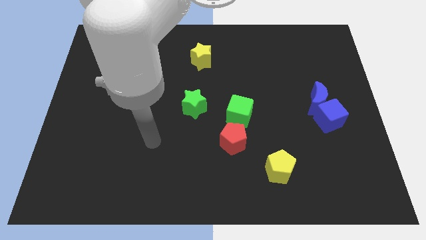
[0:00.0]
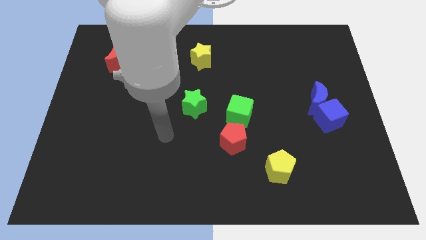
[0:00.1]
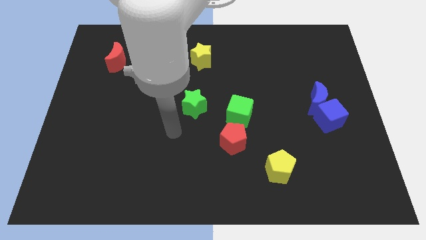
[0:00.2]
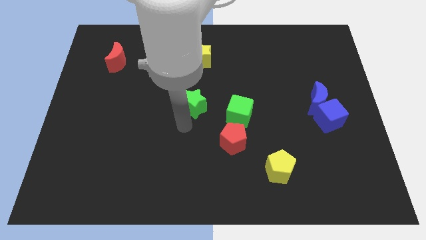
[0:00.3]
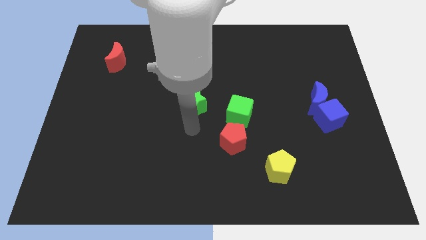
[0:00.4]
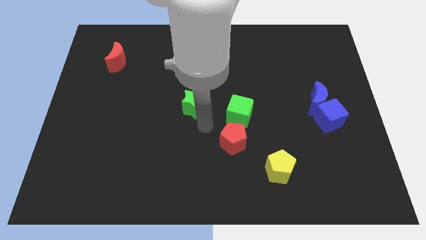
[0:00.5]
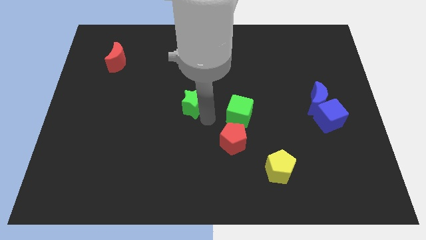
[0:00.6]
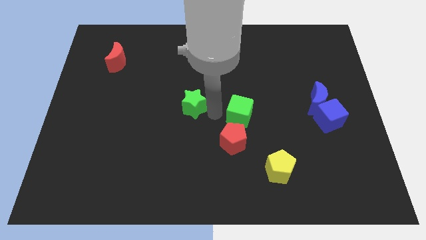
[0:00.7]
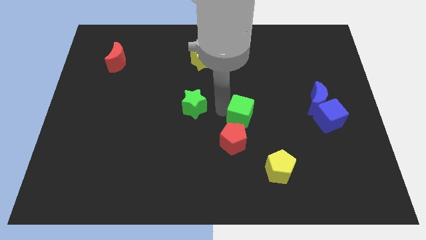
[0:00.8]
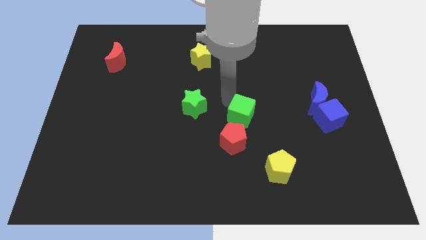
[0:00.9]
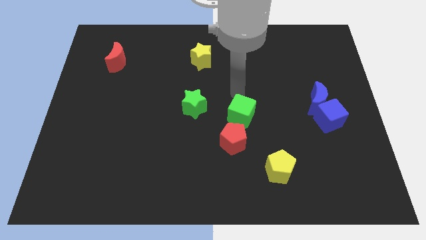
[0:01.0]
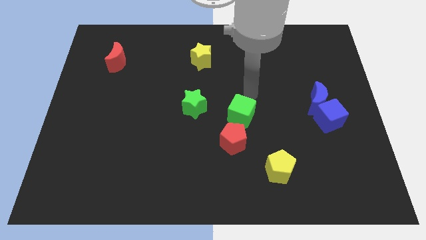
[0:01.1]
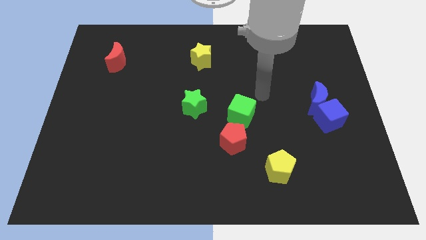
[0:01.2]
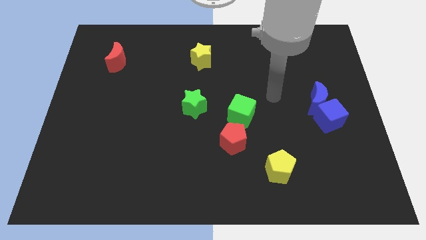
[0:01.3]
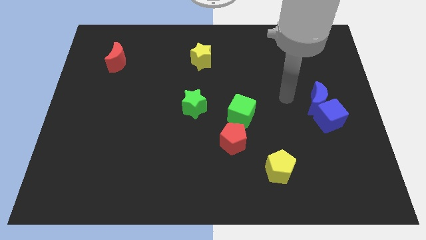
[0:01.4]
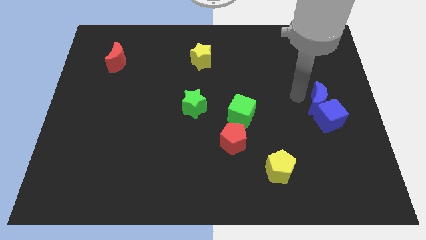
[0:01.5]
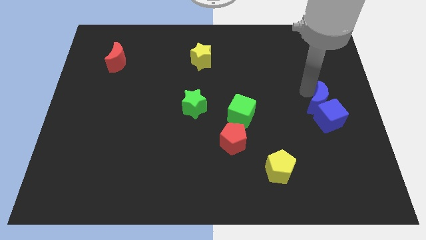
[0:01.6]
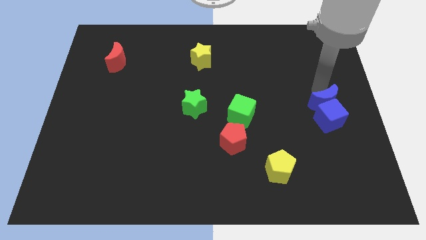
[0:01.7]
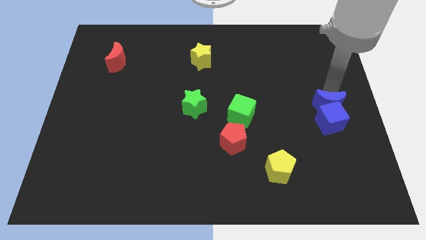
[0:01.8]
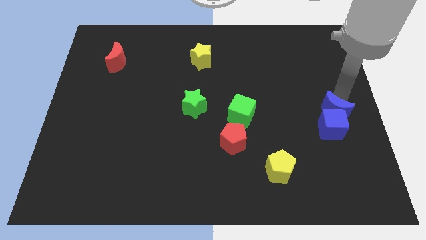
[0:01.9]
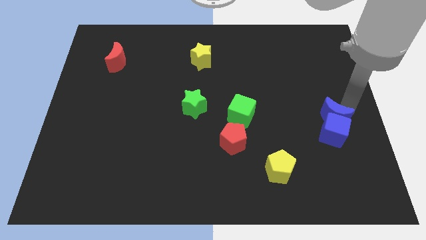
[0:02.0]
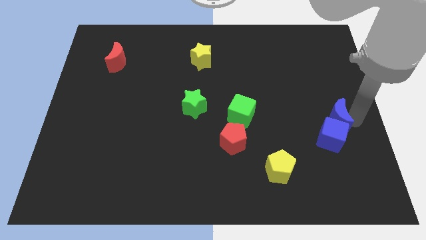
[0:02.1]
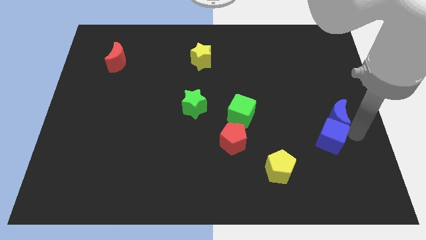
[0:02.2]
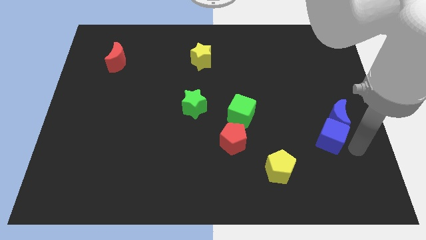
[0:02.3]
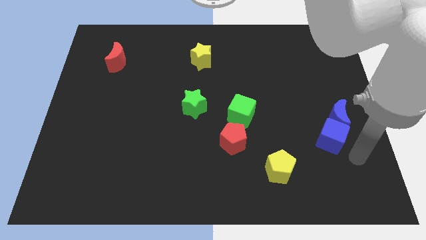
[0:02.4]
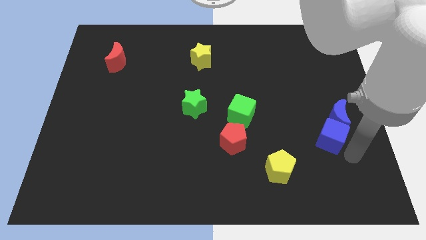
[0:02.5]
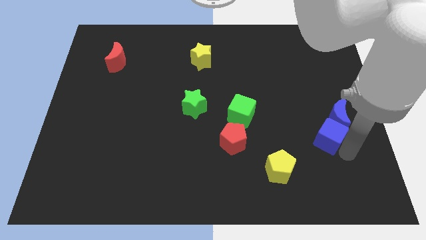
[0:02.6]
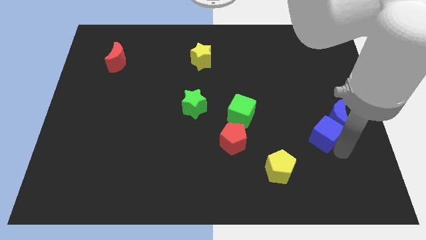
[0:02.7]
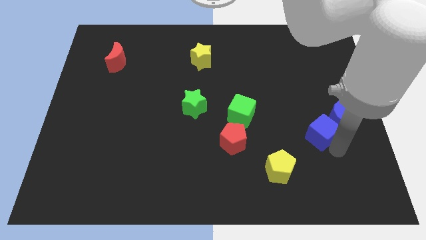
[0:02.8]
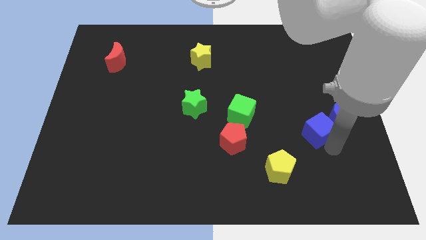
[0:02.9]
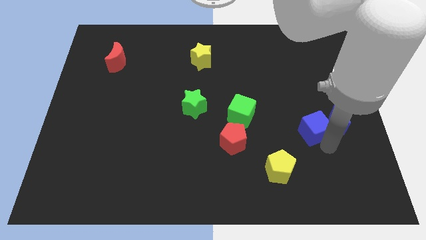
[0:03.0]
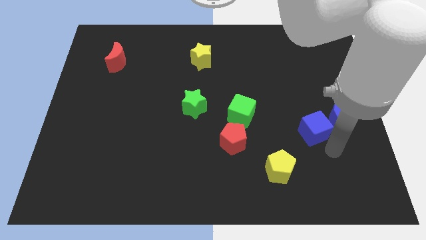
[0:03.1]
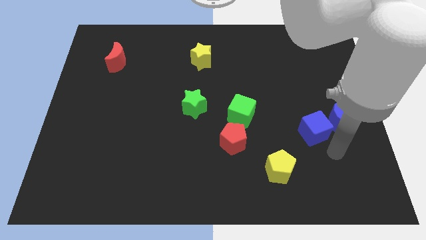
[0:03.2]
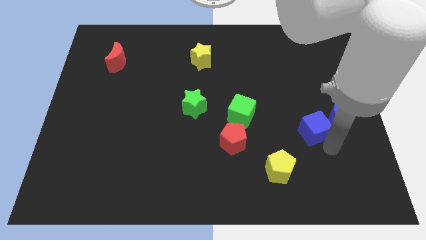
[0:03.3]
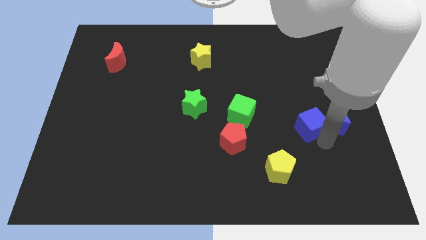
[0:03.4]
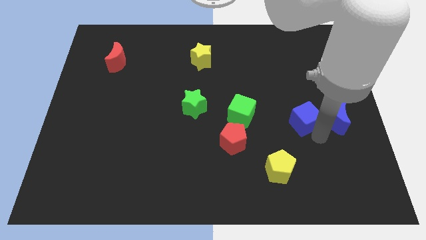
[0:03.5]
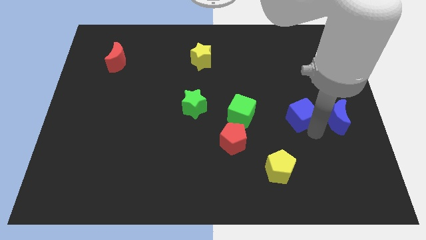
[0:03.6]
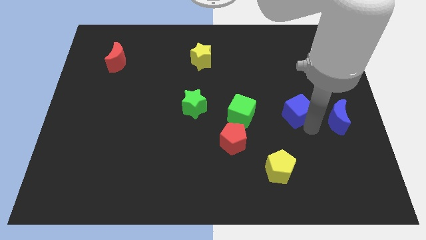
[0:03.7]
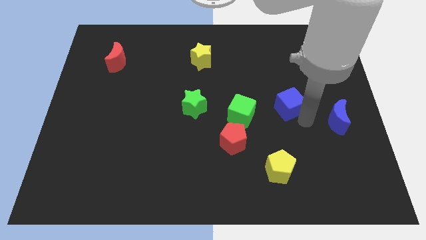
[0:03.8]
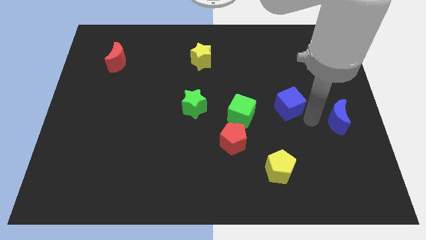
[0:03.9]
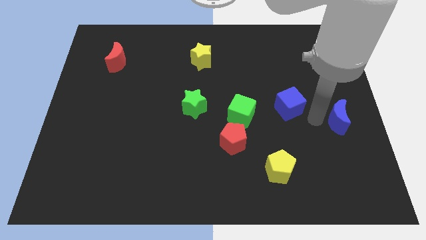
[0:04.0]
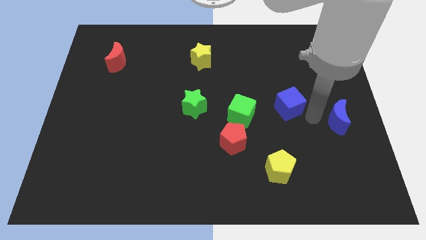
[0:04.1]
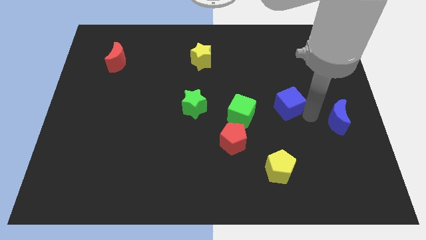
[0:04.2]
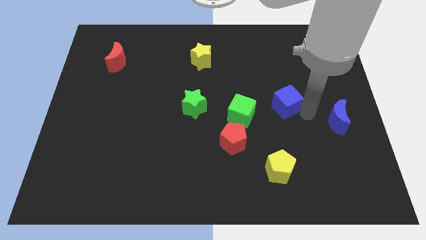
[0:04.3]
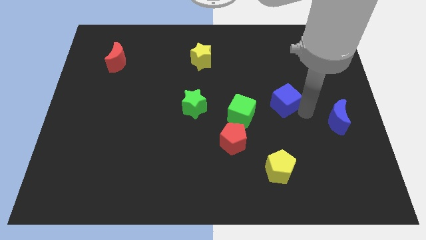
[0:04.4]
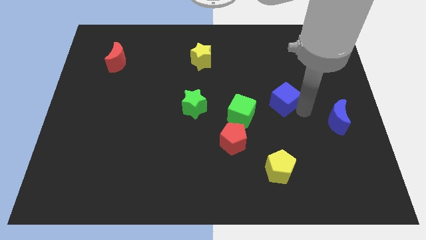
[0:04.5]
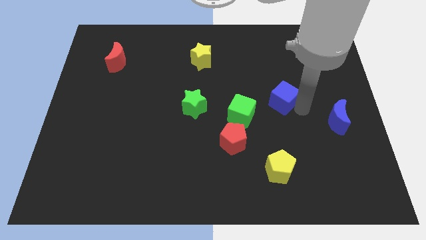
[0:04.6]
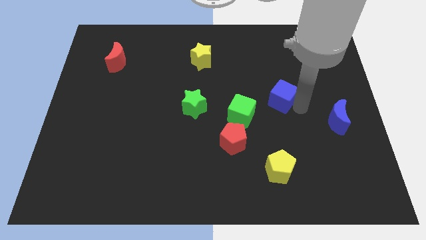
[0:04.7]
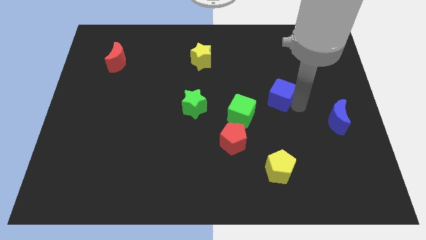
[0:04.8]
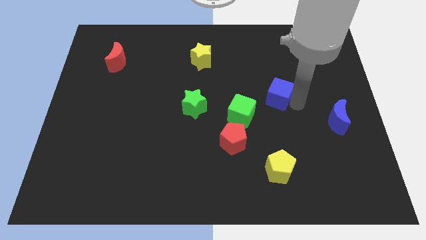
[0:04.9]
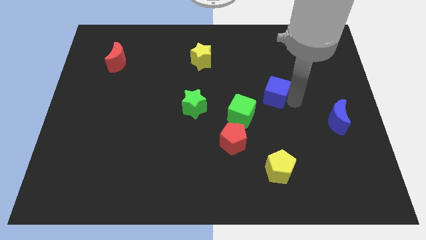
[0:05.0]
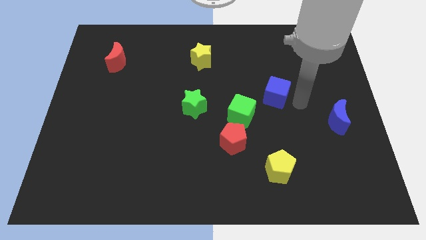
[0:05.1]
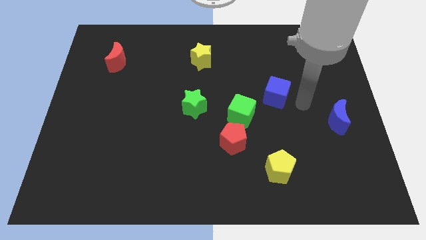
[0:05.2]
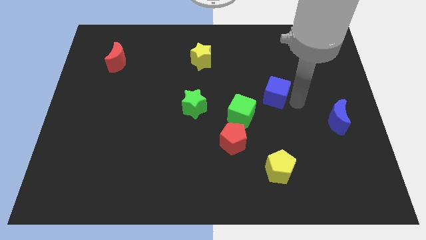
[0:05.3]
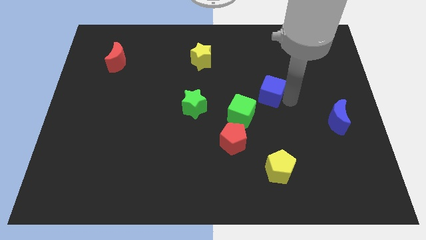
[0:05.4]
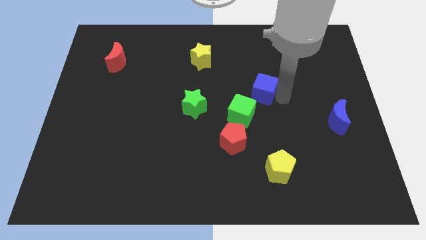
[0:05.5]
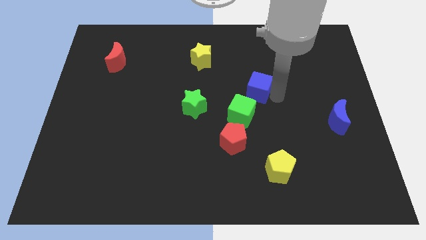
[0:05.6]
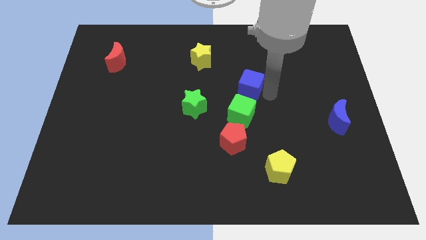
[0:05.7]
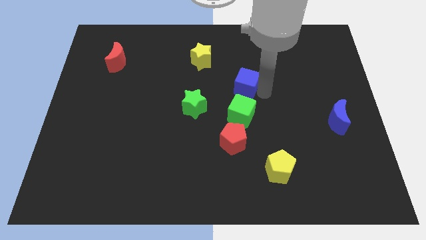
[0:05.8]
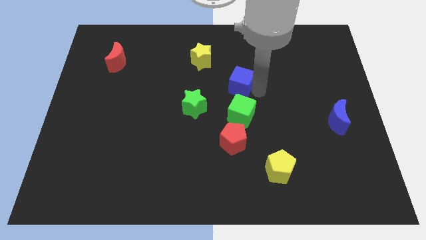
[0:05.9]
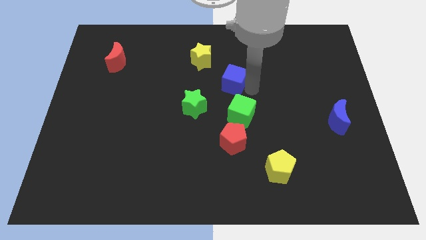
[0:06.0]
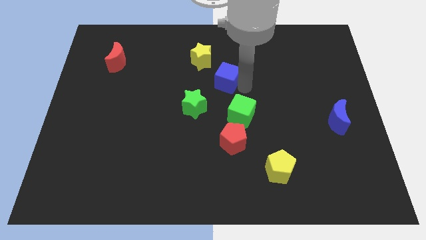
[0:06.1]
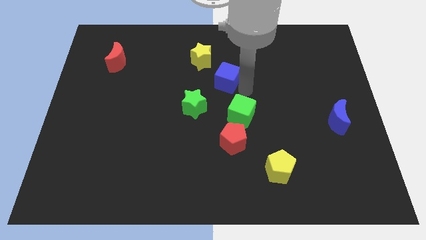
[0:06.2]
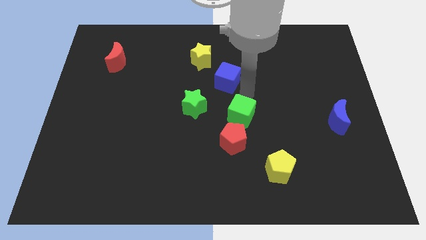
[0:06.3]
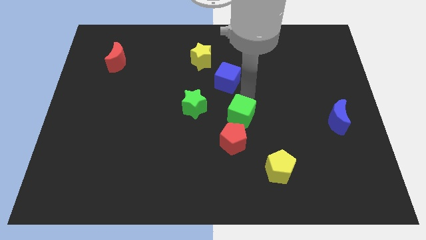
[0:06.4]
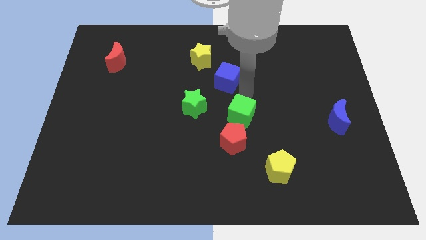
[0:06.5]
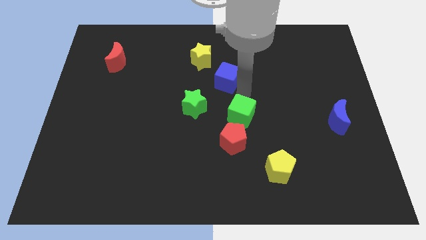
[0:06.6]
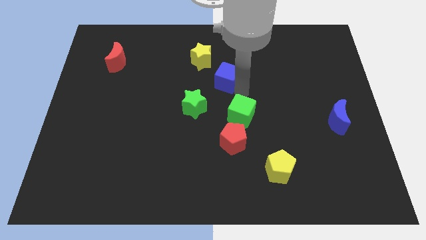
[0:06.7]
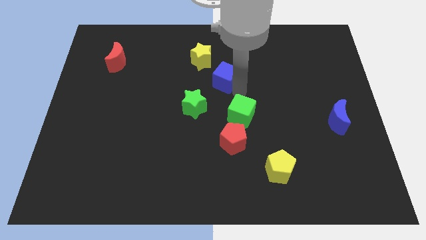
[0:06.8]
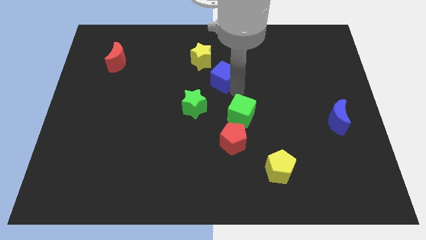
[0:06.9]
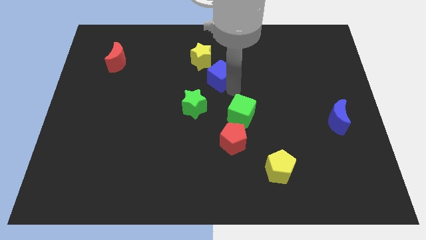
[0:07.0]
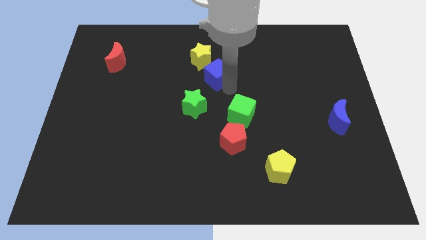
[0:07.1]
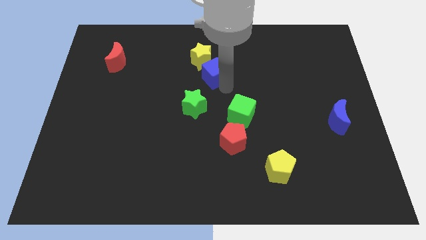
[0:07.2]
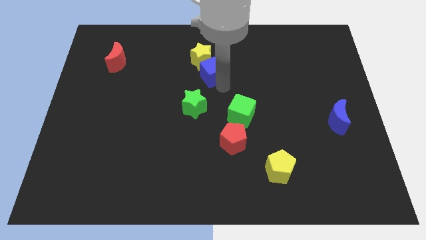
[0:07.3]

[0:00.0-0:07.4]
push the blue cube to the yellow star
